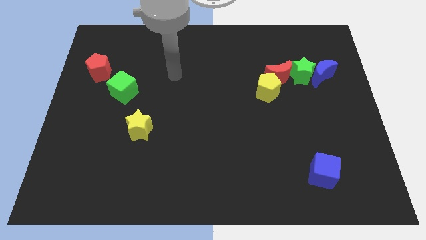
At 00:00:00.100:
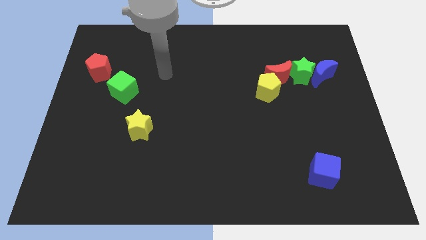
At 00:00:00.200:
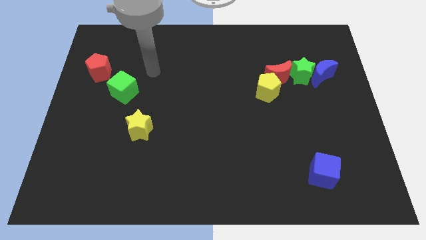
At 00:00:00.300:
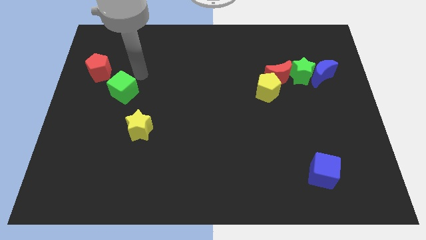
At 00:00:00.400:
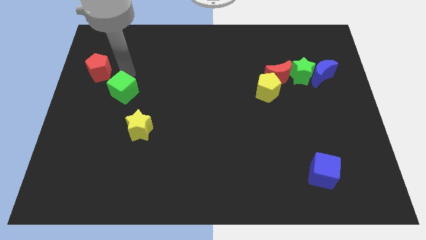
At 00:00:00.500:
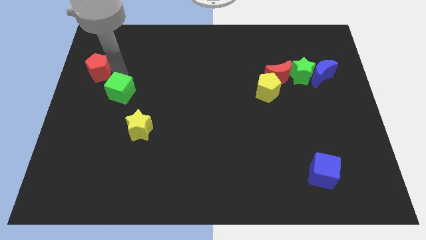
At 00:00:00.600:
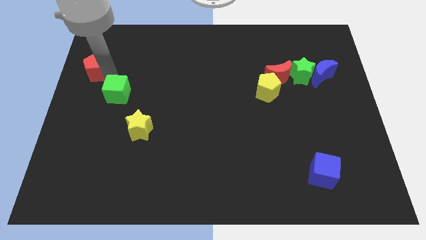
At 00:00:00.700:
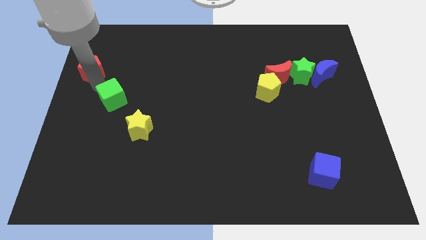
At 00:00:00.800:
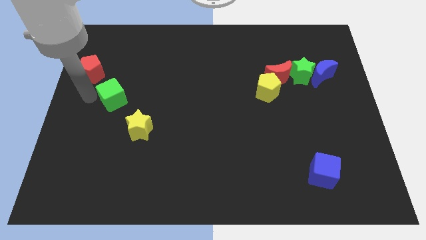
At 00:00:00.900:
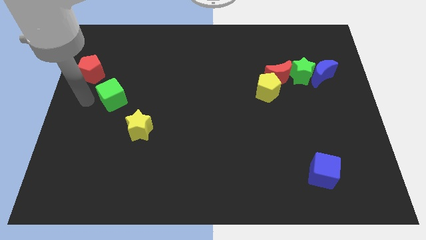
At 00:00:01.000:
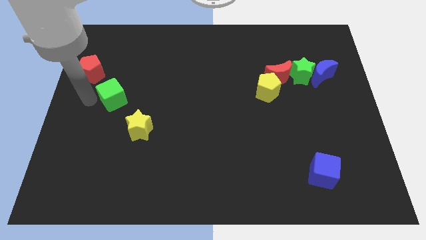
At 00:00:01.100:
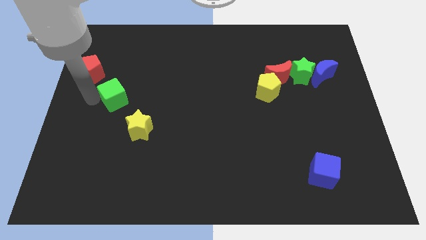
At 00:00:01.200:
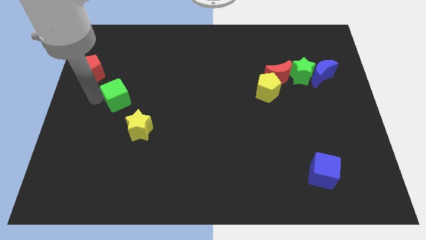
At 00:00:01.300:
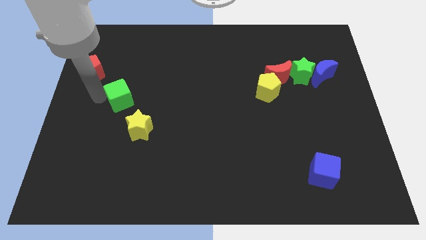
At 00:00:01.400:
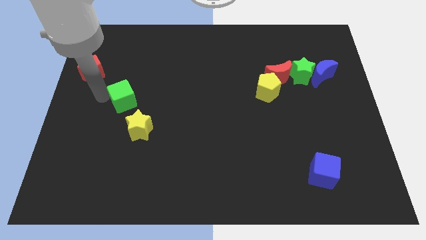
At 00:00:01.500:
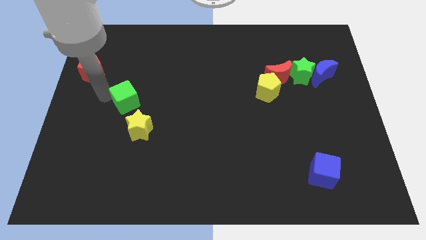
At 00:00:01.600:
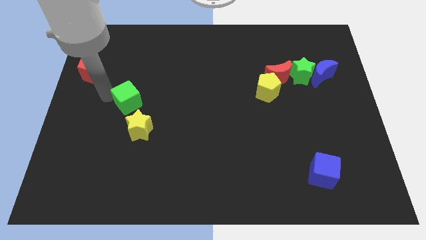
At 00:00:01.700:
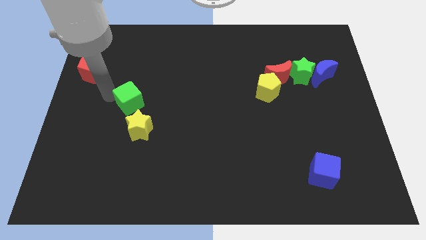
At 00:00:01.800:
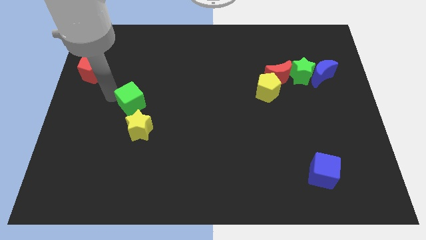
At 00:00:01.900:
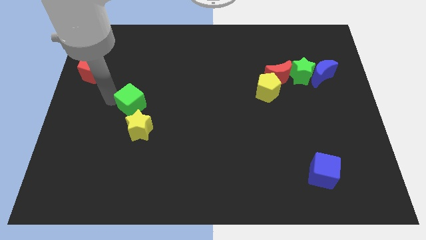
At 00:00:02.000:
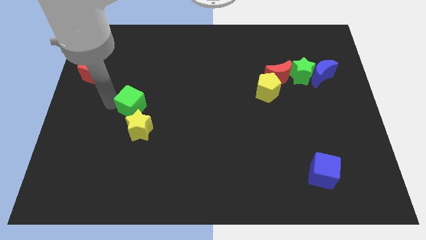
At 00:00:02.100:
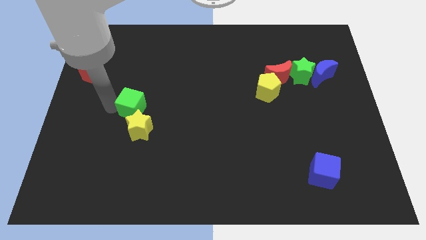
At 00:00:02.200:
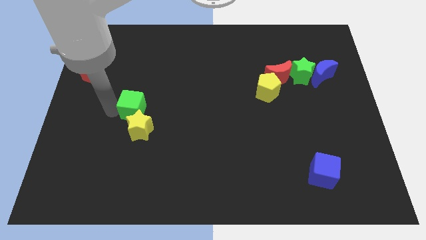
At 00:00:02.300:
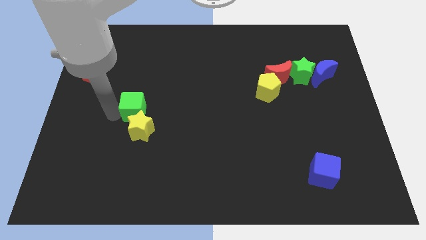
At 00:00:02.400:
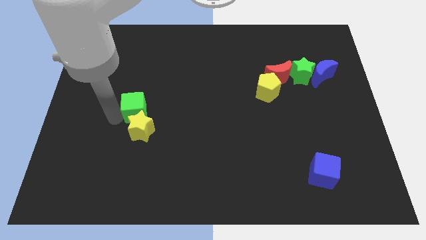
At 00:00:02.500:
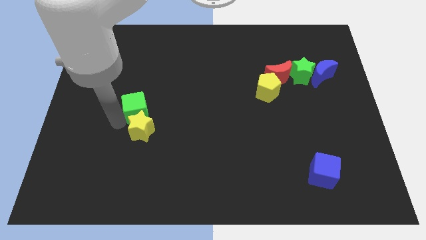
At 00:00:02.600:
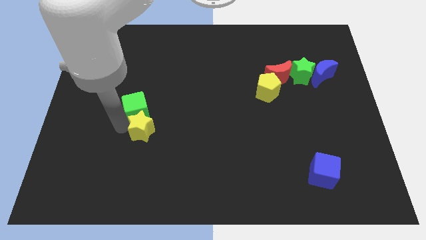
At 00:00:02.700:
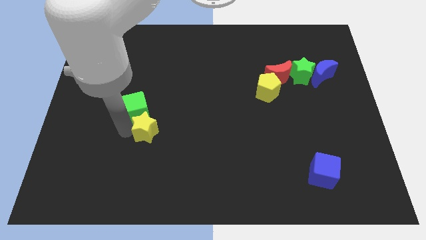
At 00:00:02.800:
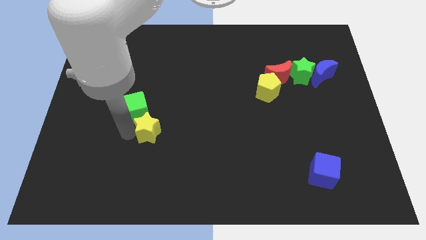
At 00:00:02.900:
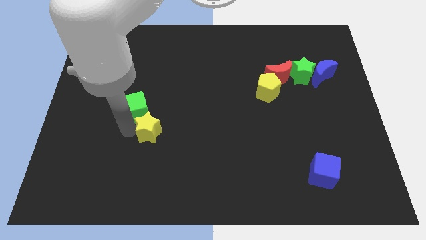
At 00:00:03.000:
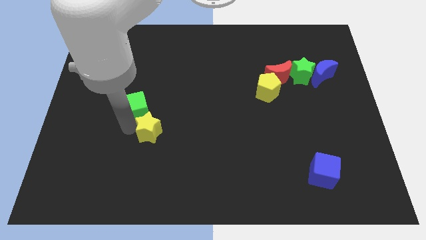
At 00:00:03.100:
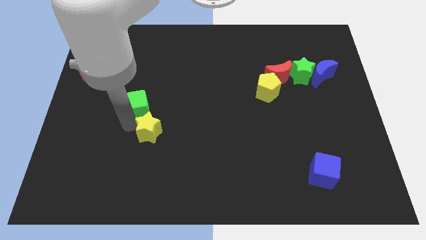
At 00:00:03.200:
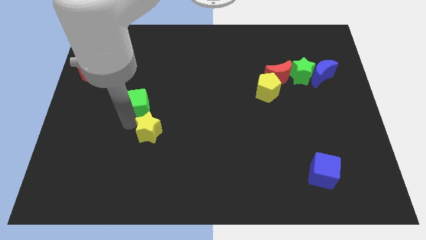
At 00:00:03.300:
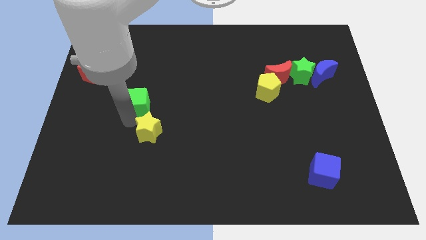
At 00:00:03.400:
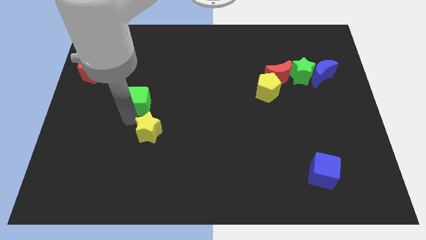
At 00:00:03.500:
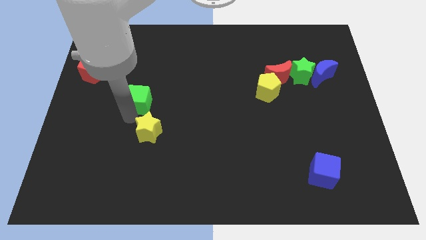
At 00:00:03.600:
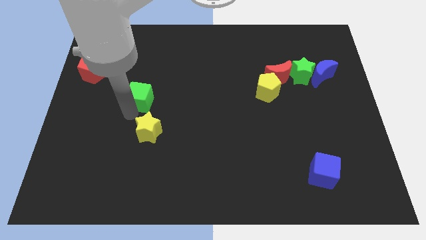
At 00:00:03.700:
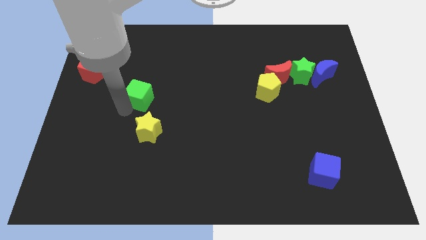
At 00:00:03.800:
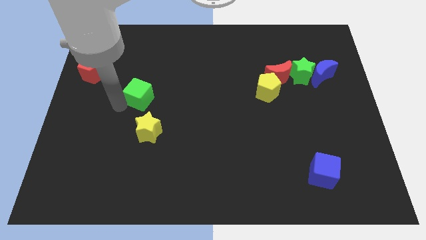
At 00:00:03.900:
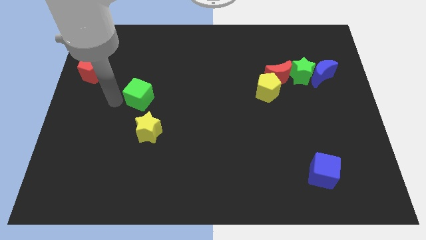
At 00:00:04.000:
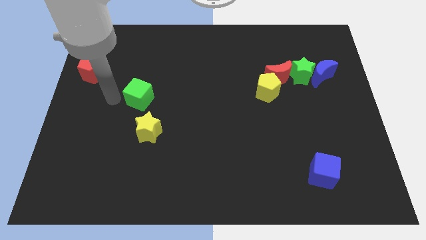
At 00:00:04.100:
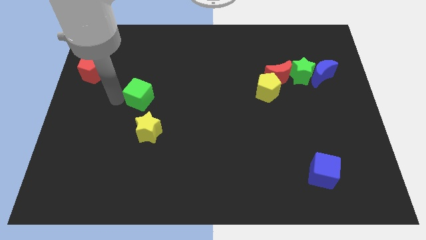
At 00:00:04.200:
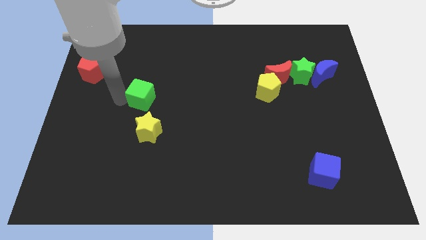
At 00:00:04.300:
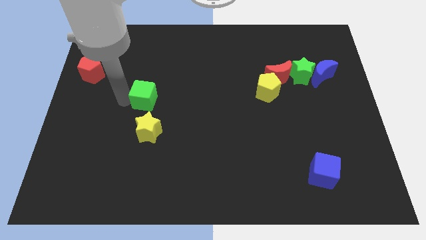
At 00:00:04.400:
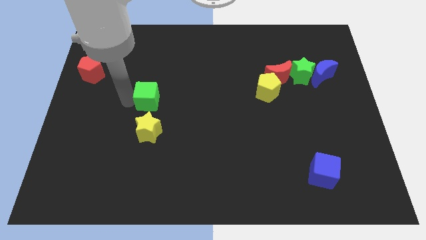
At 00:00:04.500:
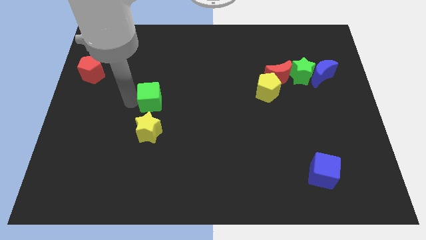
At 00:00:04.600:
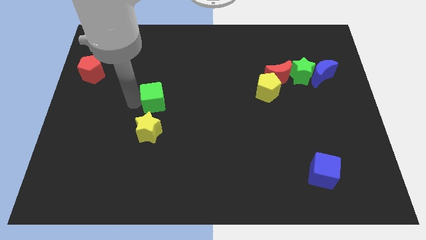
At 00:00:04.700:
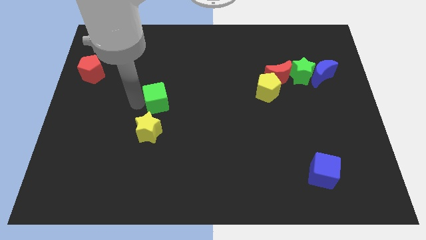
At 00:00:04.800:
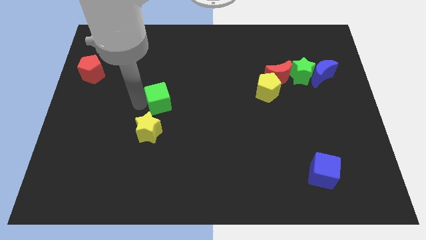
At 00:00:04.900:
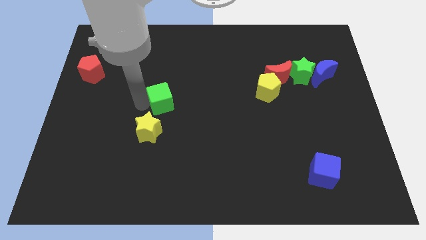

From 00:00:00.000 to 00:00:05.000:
move the green cube to the center

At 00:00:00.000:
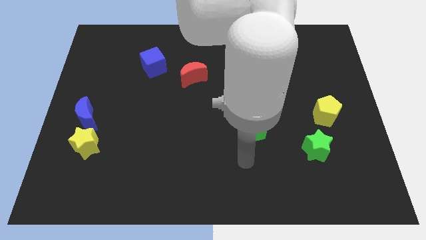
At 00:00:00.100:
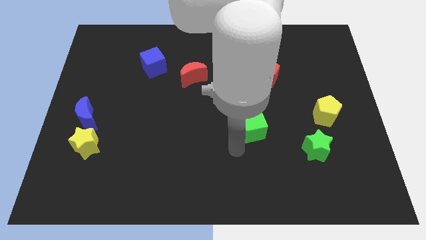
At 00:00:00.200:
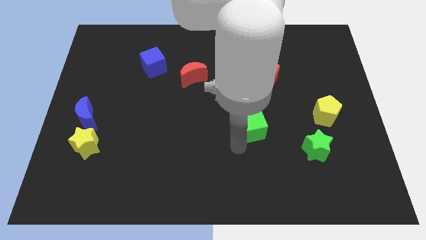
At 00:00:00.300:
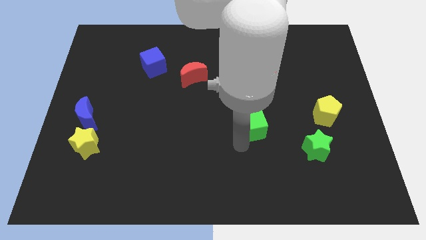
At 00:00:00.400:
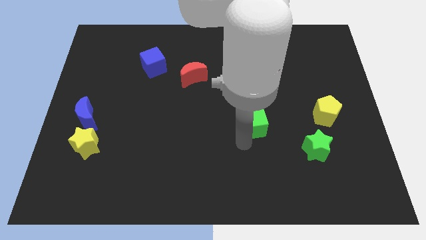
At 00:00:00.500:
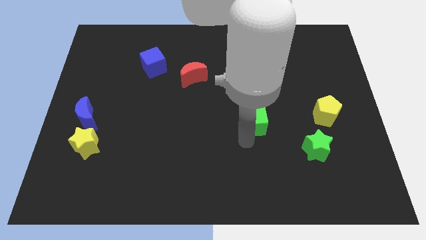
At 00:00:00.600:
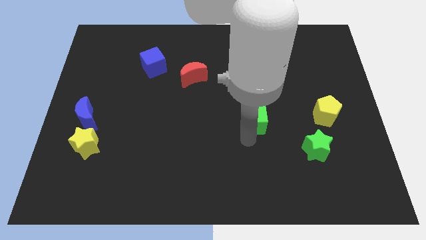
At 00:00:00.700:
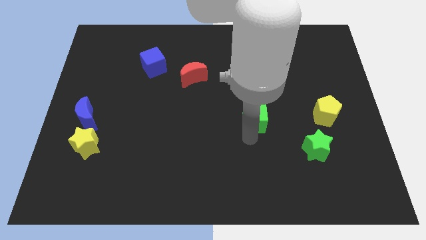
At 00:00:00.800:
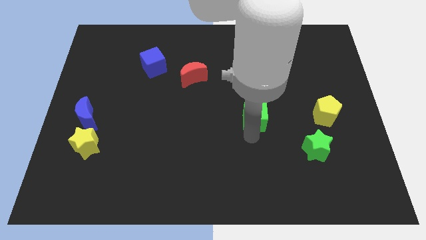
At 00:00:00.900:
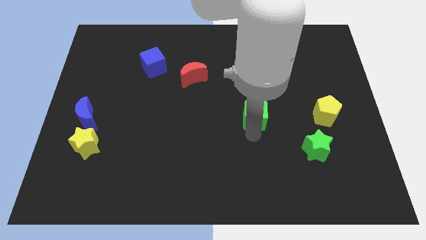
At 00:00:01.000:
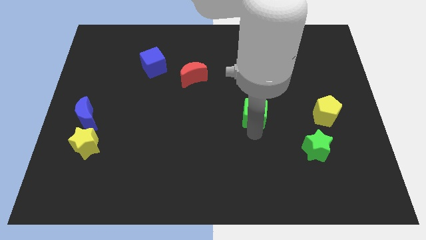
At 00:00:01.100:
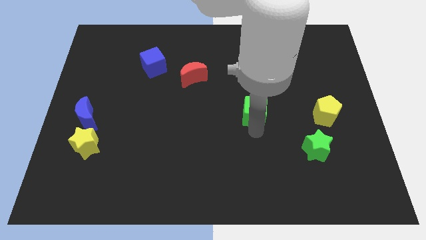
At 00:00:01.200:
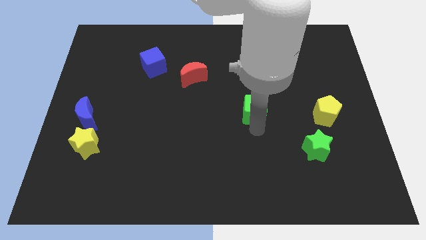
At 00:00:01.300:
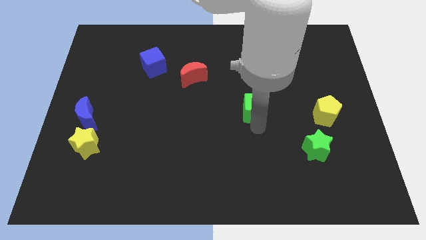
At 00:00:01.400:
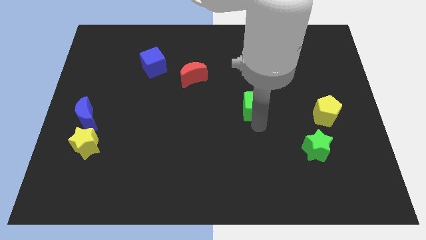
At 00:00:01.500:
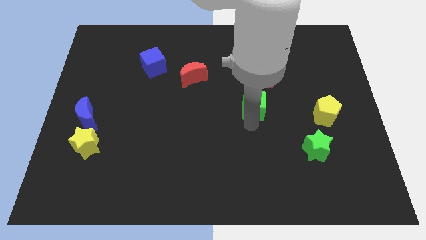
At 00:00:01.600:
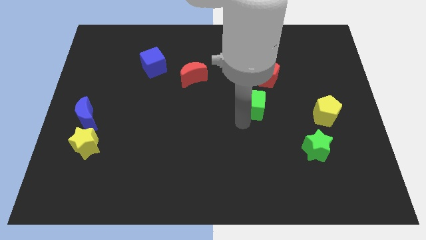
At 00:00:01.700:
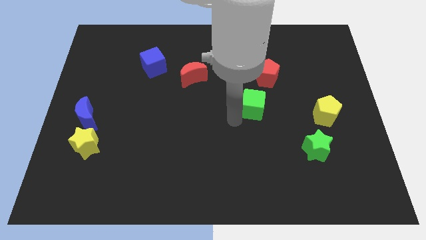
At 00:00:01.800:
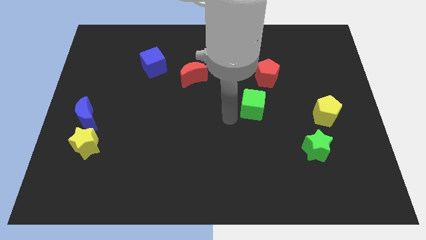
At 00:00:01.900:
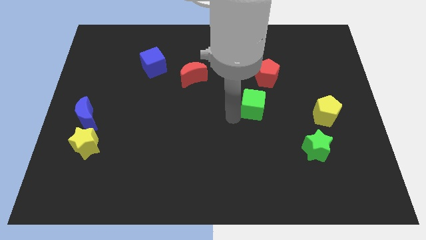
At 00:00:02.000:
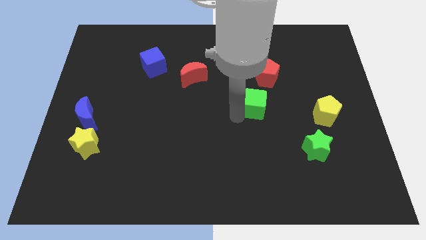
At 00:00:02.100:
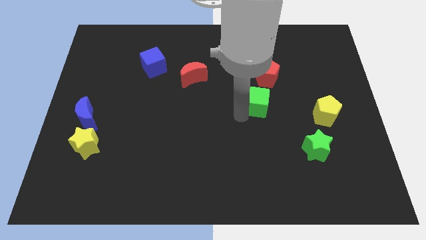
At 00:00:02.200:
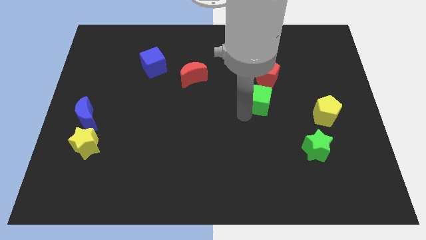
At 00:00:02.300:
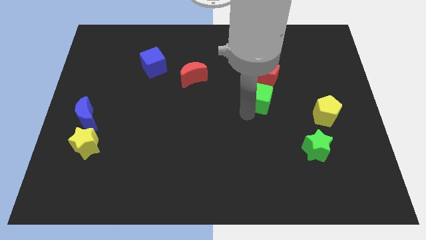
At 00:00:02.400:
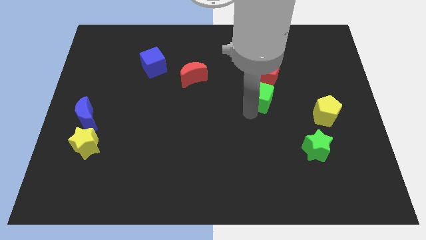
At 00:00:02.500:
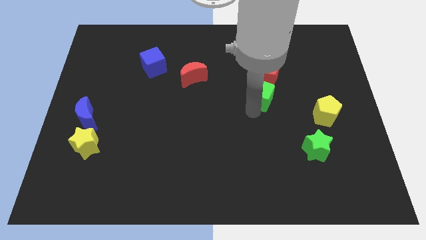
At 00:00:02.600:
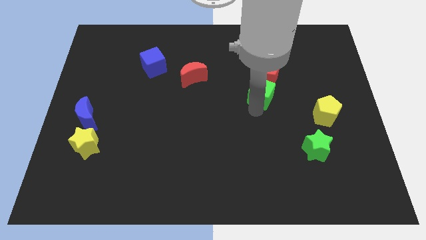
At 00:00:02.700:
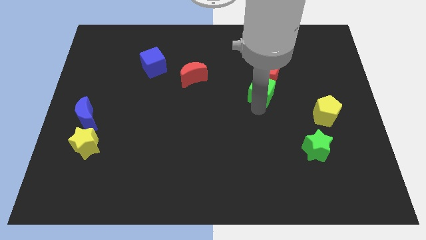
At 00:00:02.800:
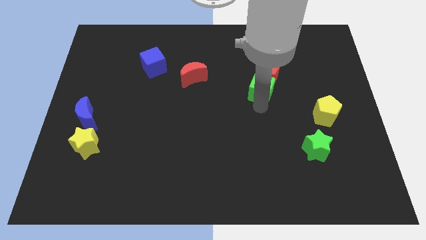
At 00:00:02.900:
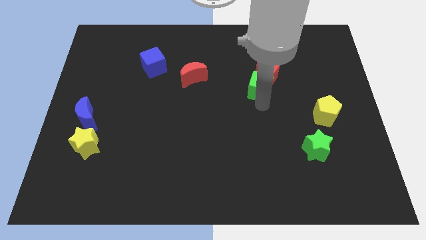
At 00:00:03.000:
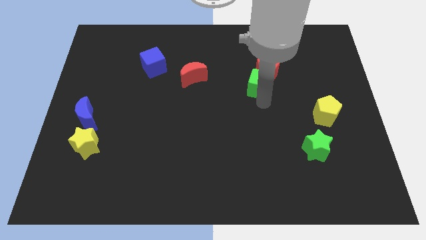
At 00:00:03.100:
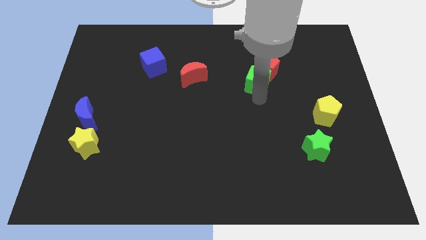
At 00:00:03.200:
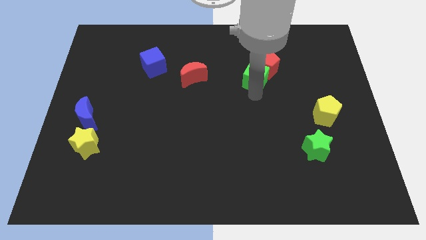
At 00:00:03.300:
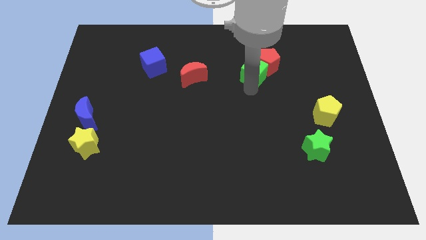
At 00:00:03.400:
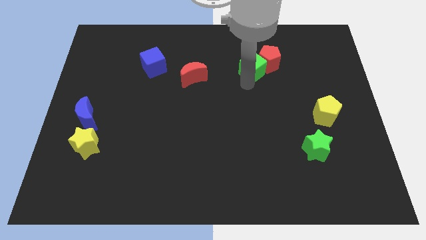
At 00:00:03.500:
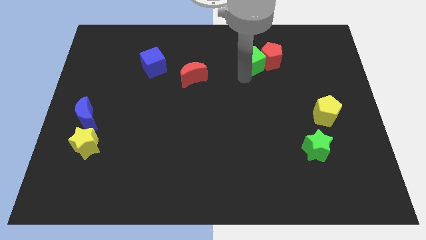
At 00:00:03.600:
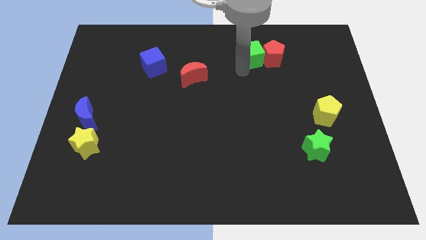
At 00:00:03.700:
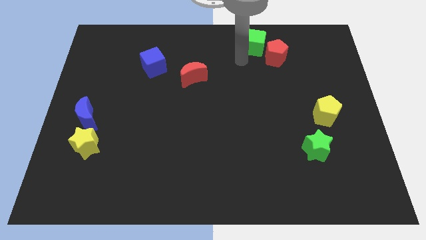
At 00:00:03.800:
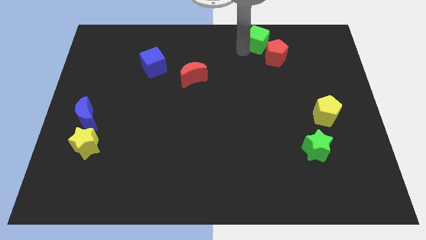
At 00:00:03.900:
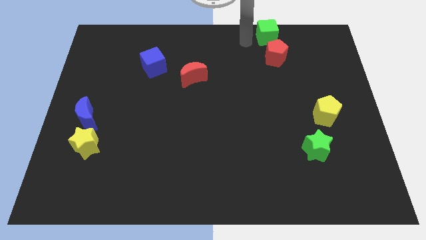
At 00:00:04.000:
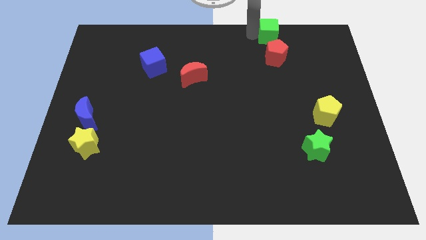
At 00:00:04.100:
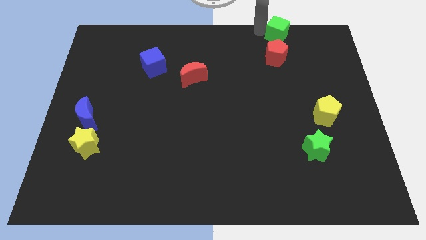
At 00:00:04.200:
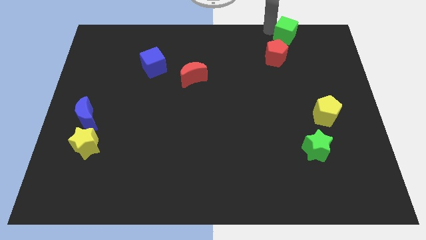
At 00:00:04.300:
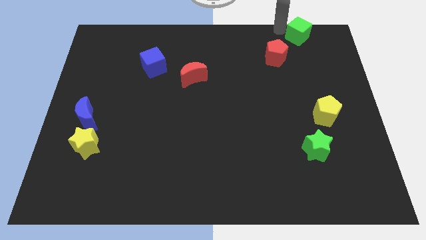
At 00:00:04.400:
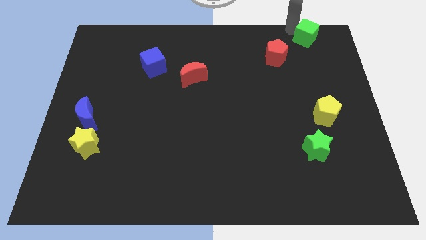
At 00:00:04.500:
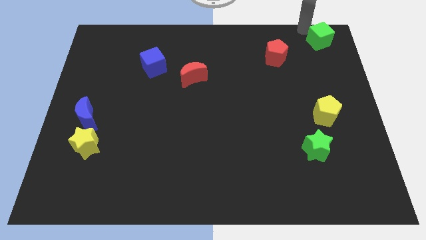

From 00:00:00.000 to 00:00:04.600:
push the green cube to the upper right corner
